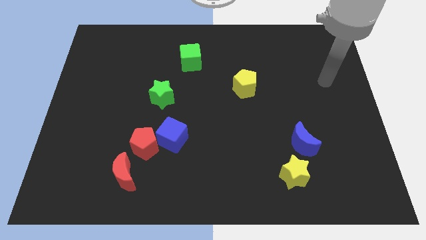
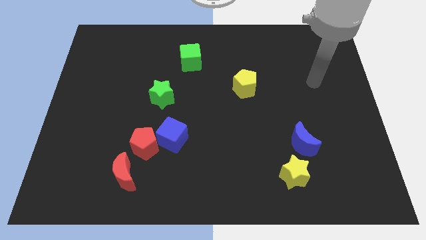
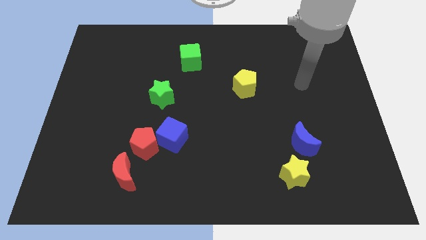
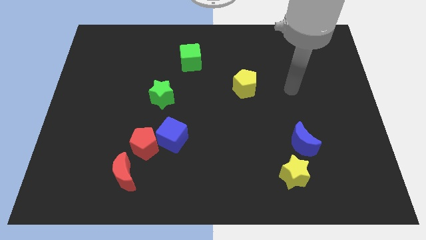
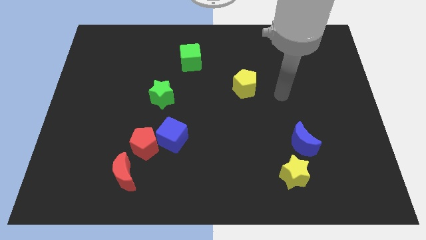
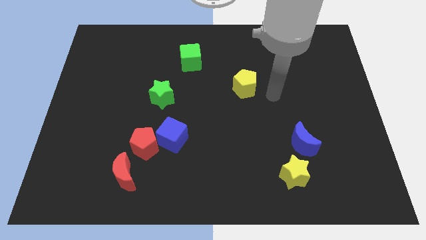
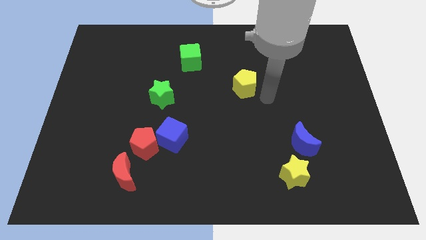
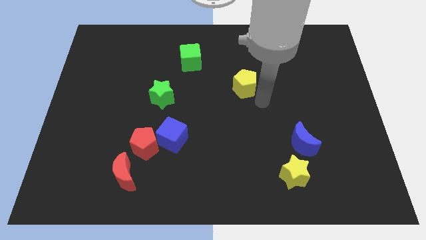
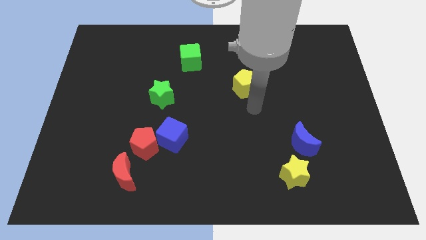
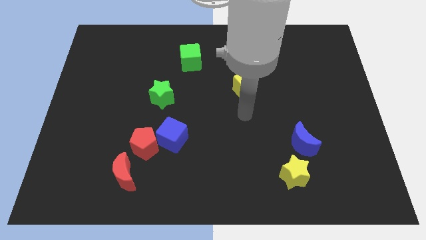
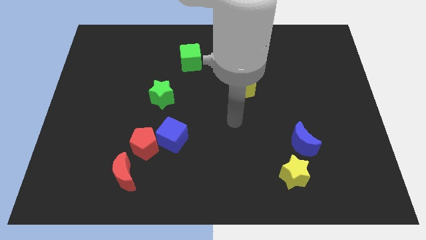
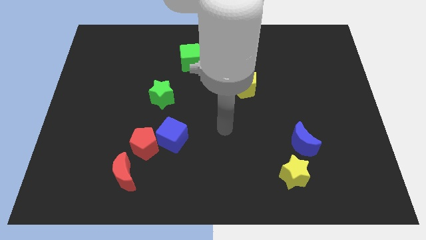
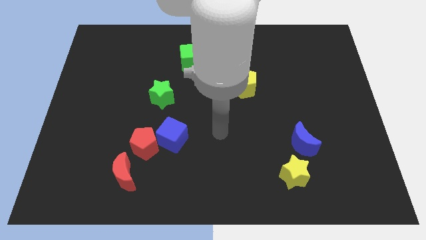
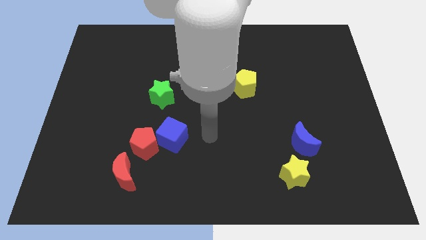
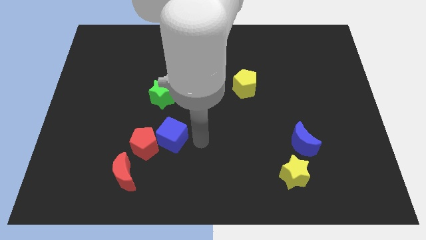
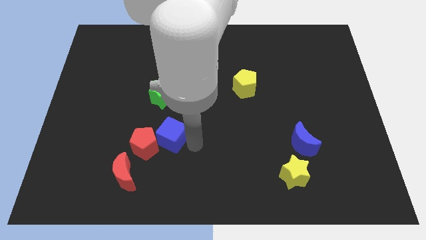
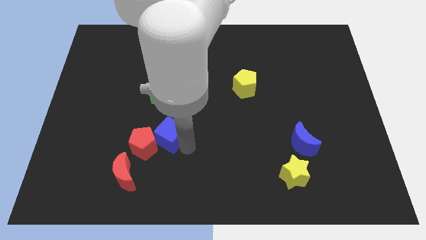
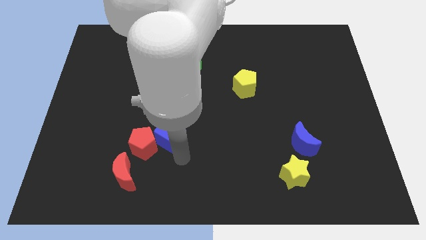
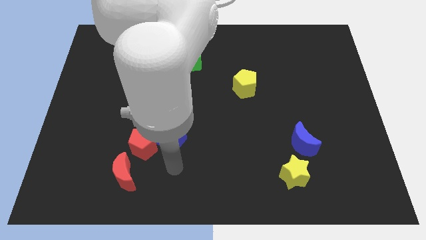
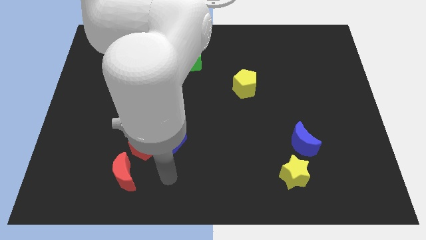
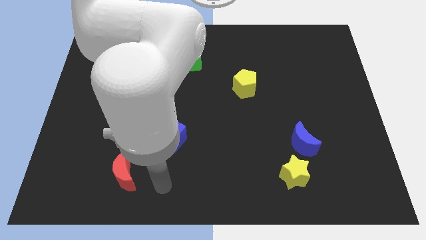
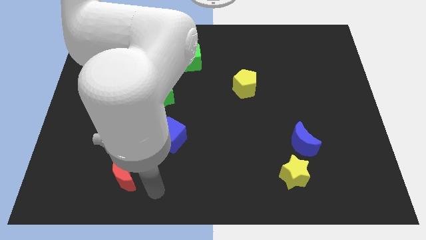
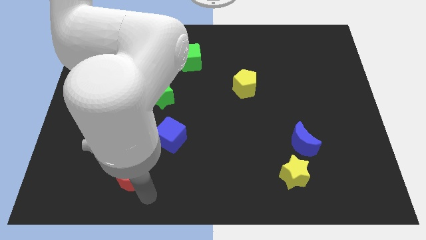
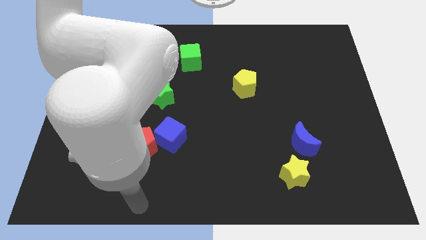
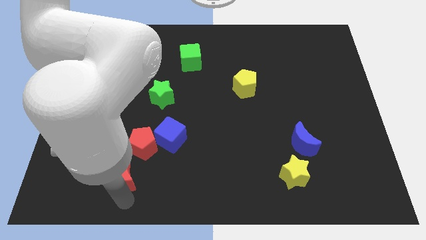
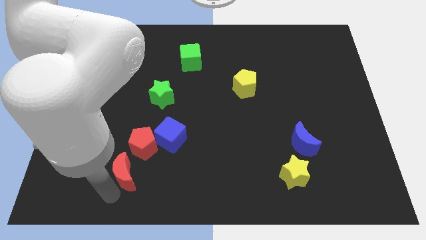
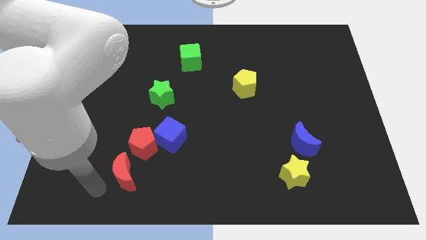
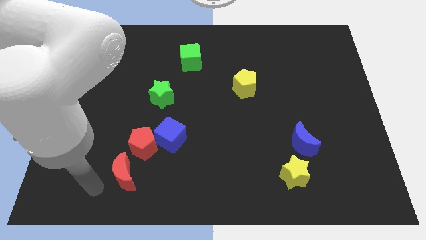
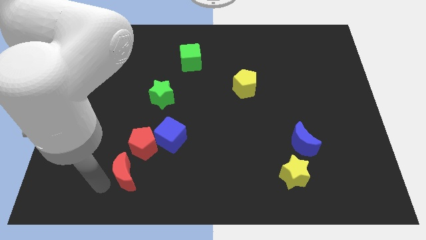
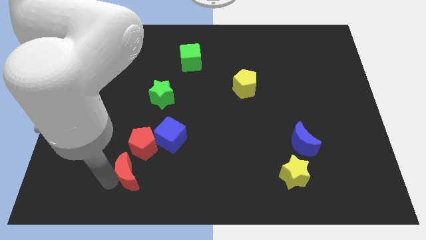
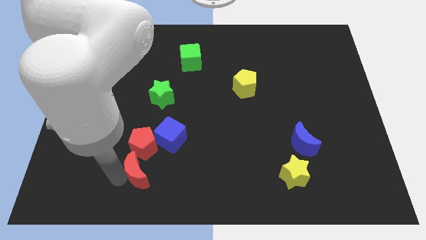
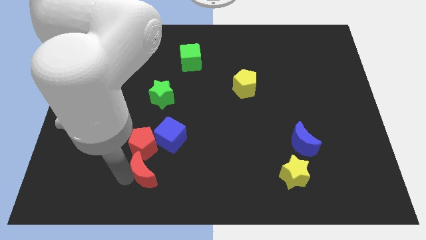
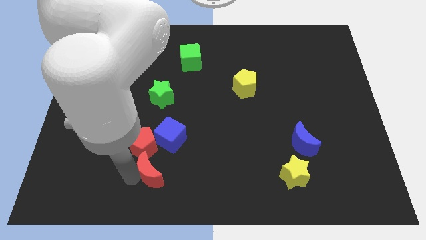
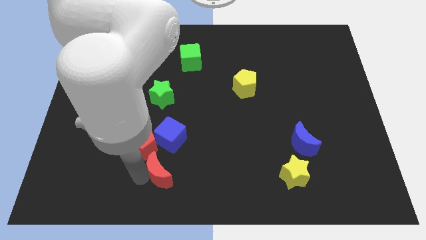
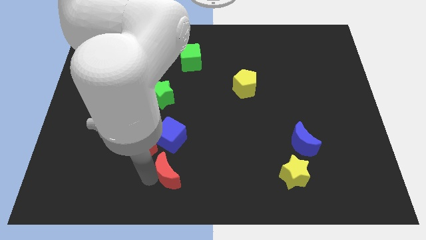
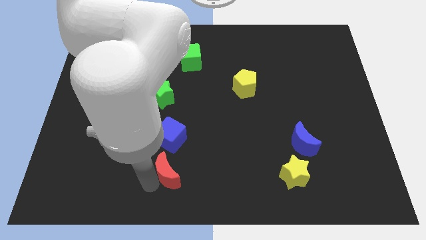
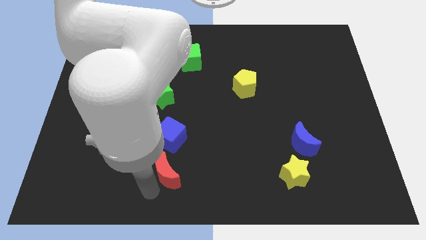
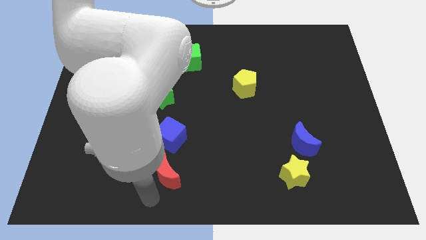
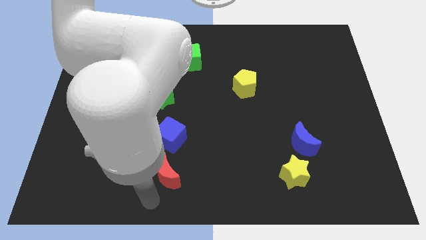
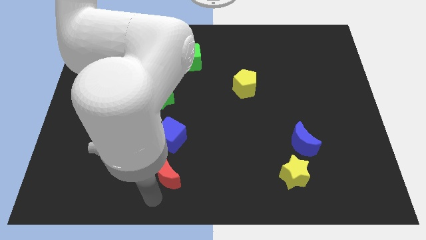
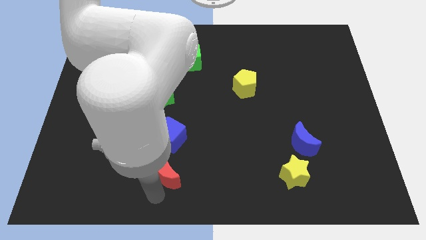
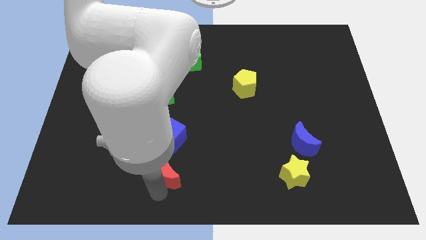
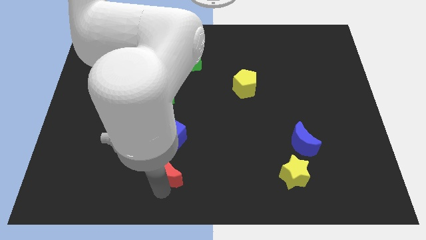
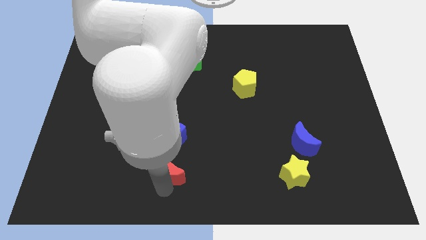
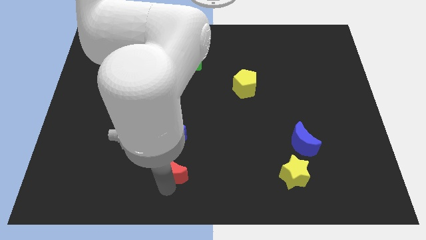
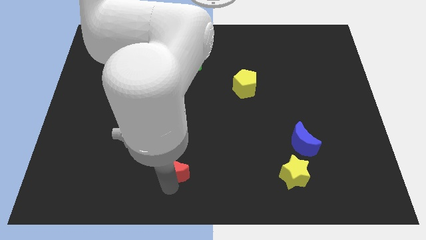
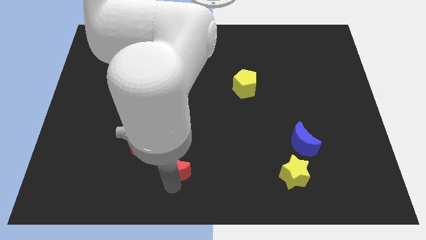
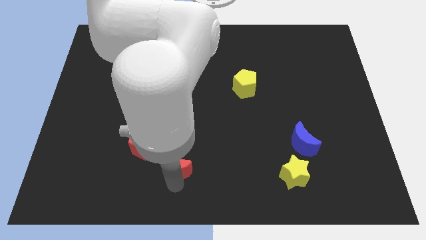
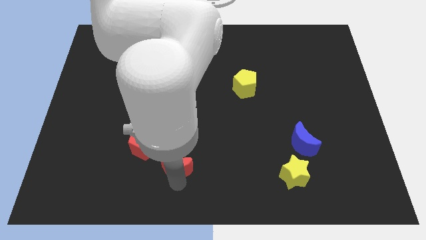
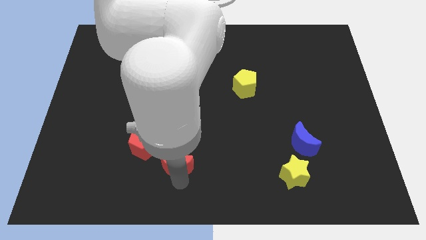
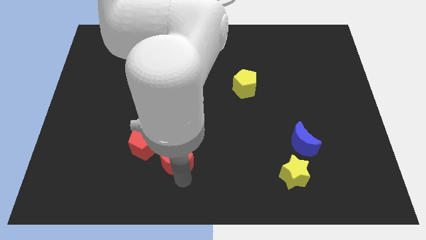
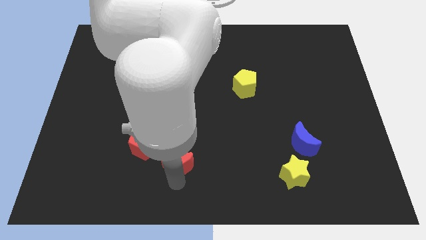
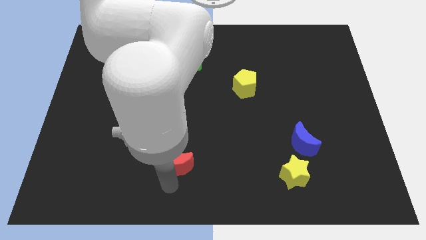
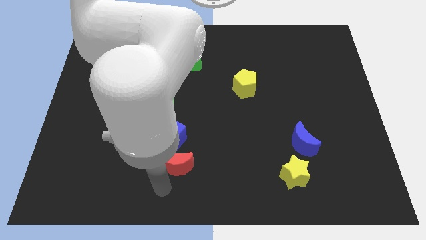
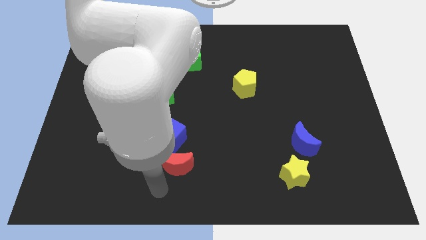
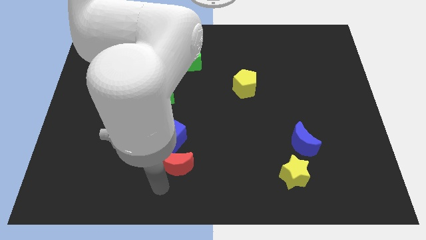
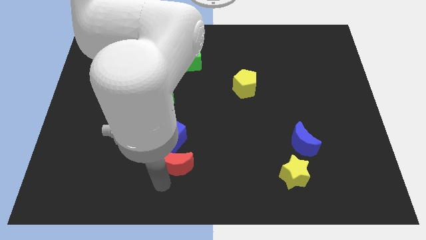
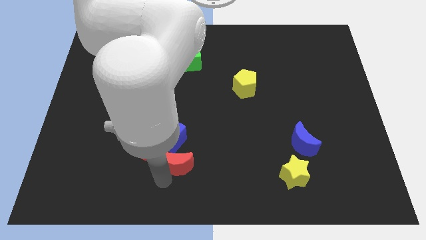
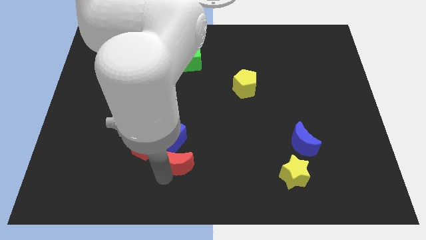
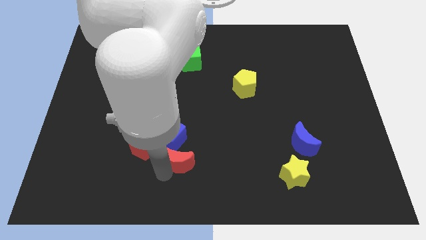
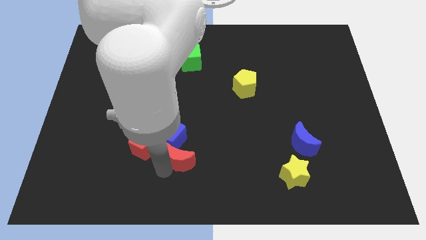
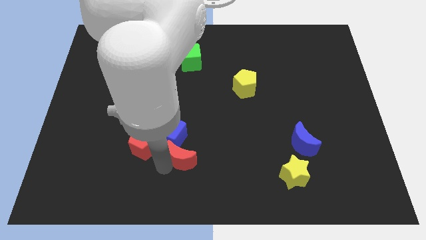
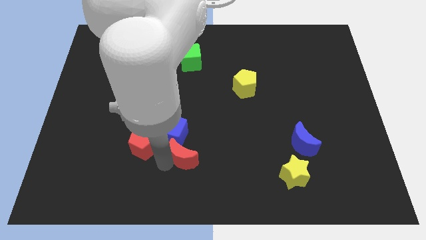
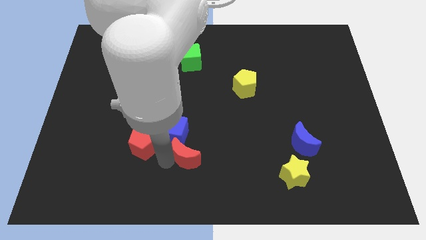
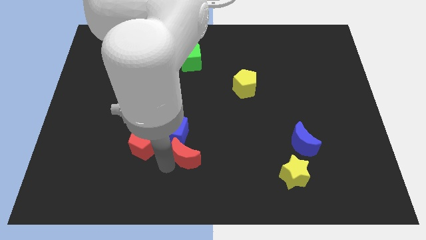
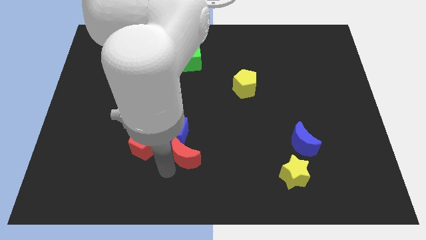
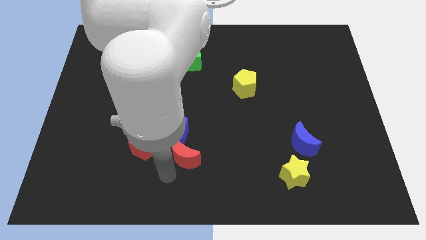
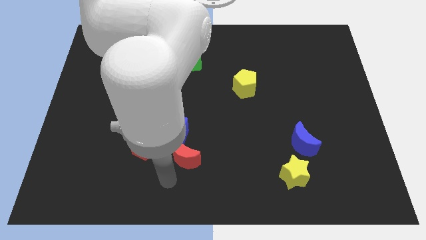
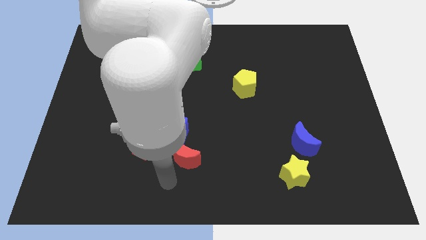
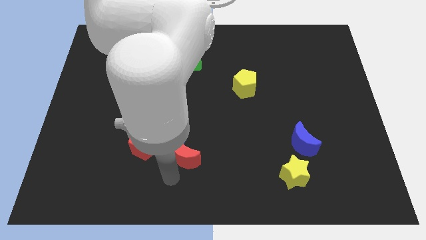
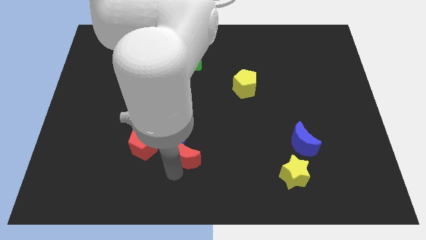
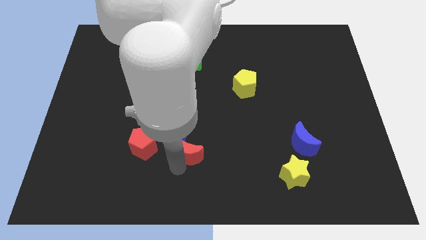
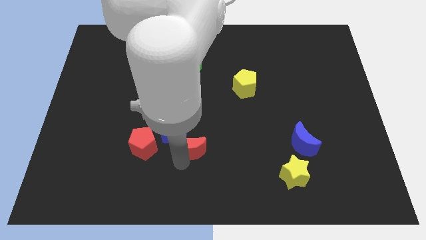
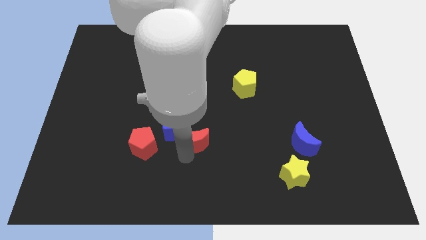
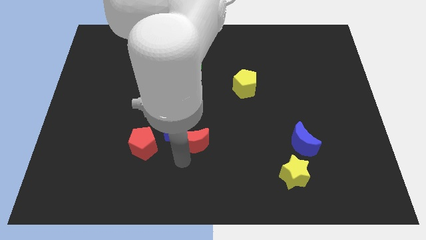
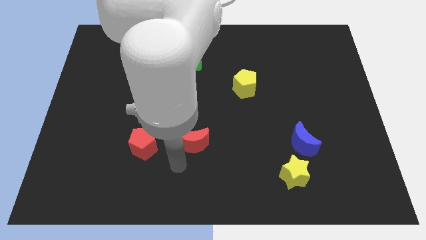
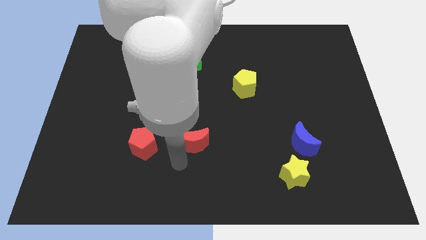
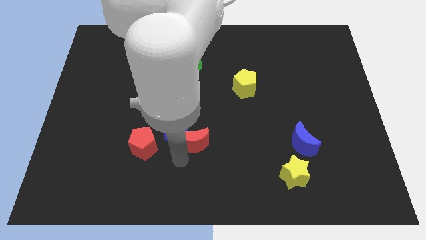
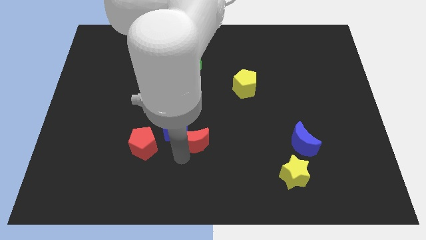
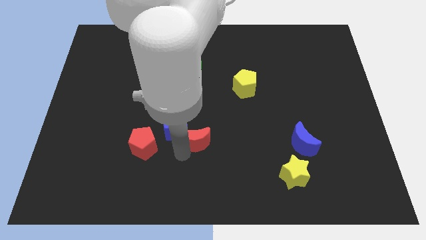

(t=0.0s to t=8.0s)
slide the red moon to the center
